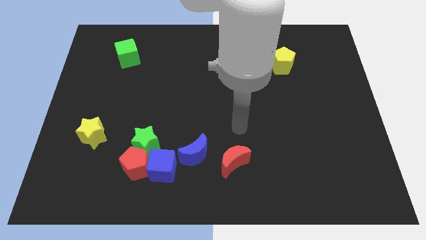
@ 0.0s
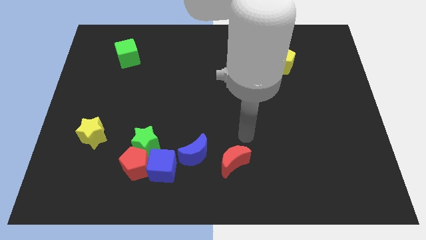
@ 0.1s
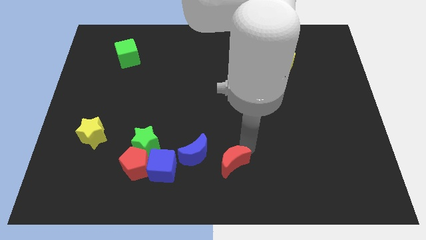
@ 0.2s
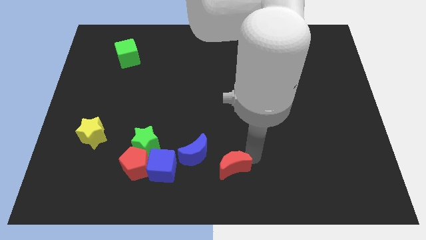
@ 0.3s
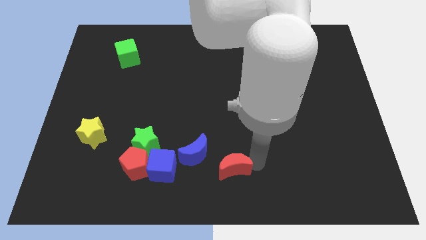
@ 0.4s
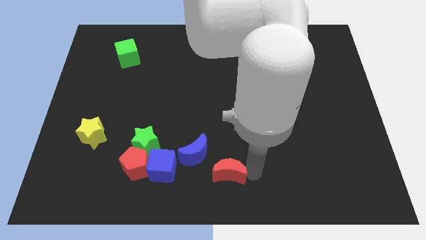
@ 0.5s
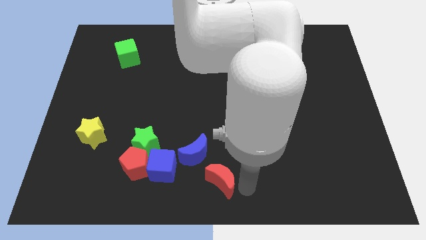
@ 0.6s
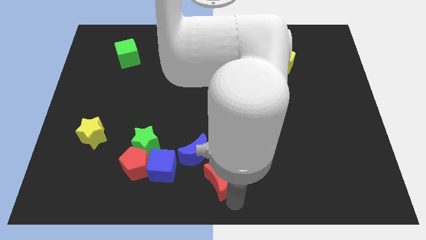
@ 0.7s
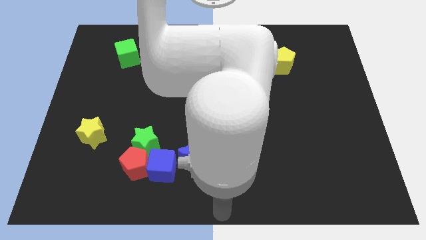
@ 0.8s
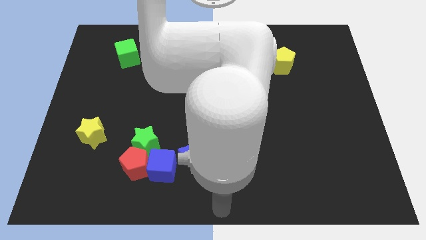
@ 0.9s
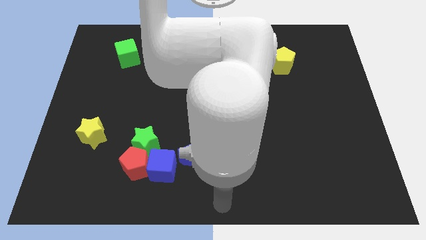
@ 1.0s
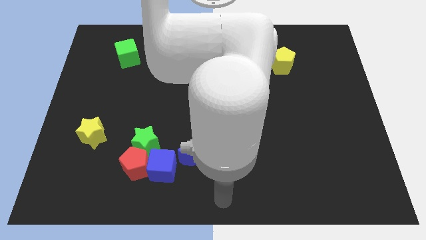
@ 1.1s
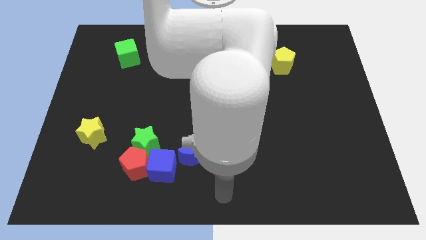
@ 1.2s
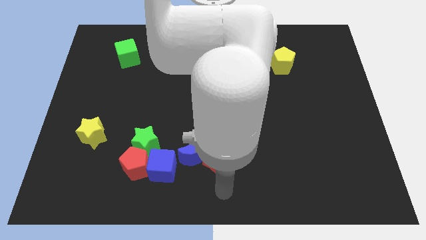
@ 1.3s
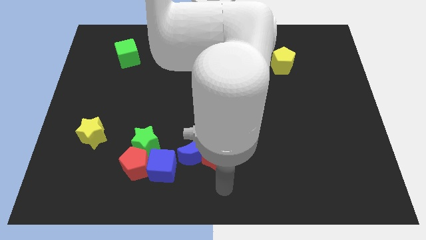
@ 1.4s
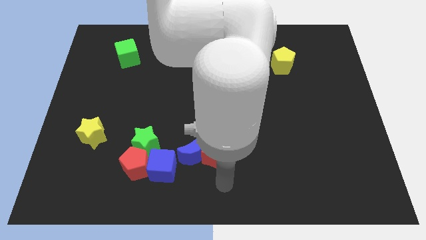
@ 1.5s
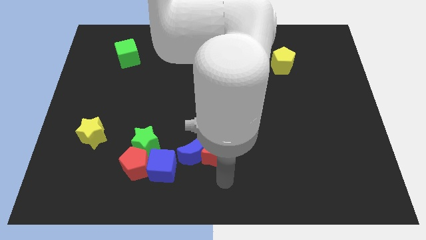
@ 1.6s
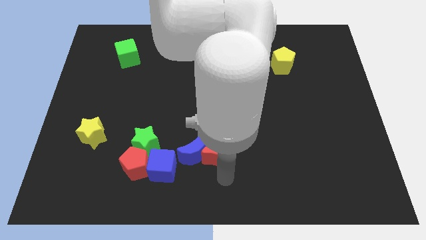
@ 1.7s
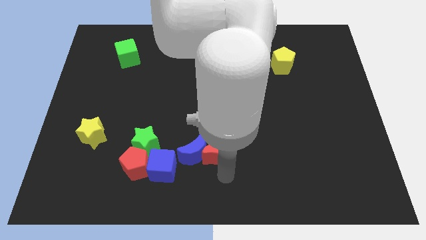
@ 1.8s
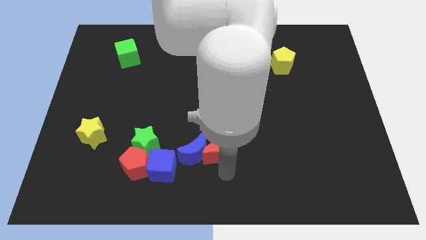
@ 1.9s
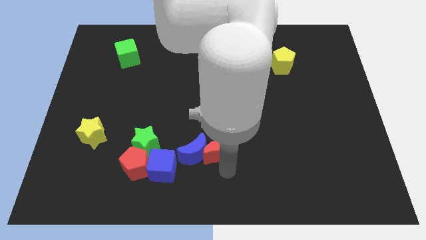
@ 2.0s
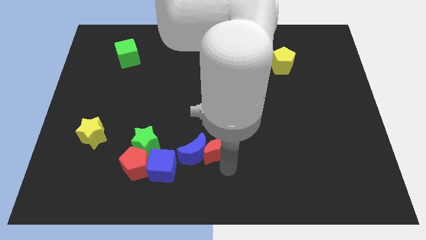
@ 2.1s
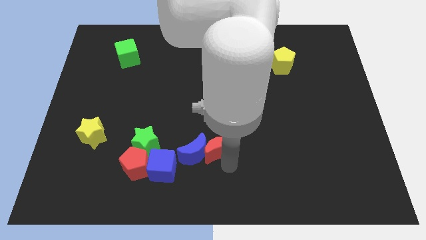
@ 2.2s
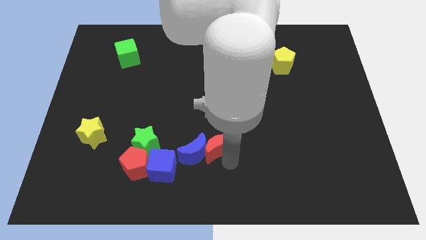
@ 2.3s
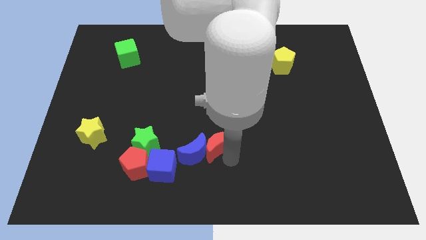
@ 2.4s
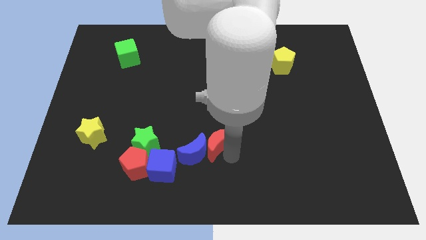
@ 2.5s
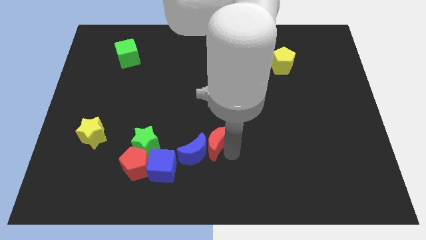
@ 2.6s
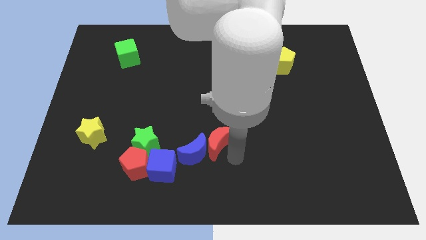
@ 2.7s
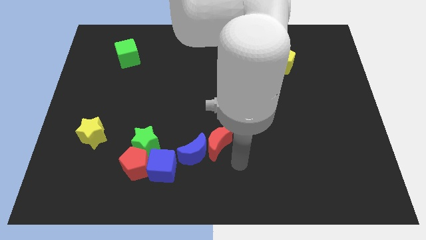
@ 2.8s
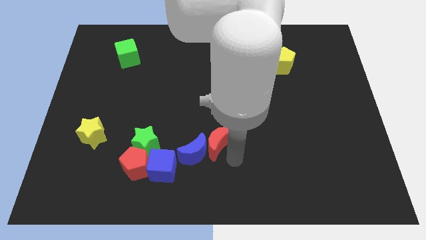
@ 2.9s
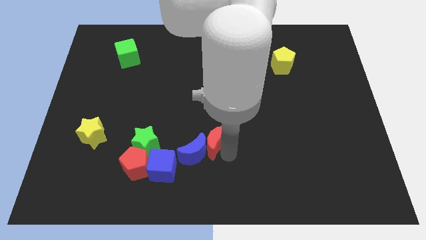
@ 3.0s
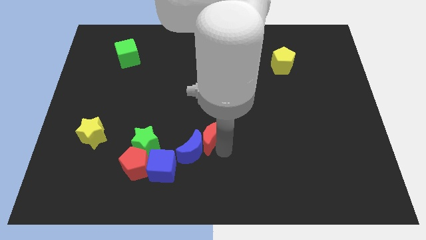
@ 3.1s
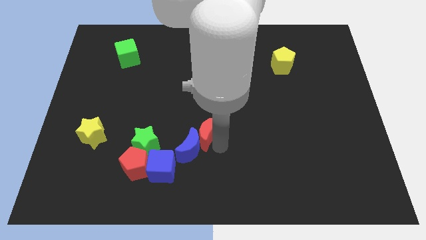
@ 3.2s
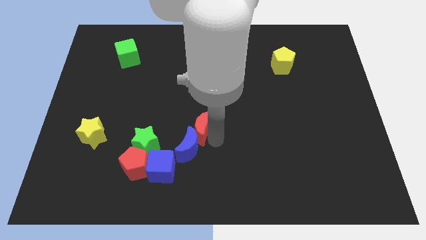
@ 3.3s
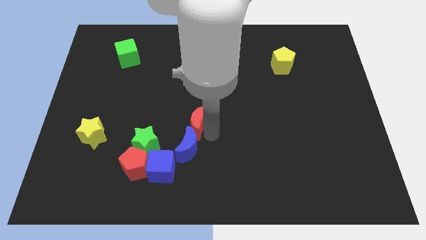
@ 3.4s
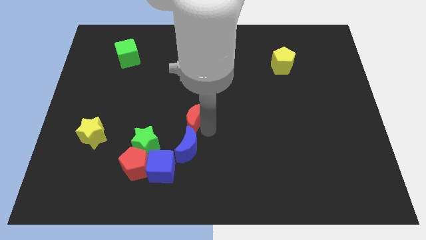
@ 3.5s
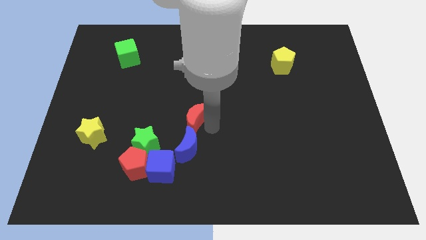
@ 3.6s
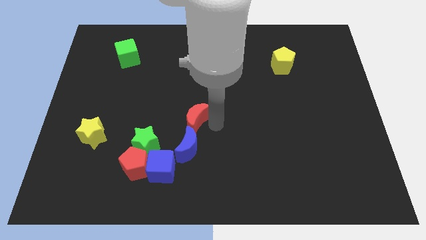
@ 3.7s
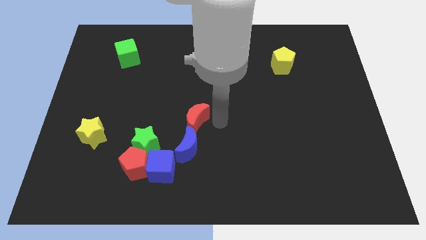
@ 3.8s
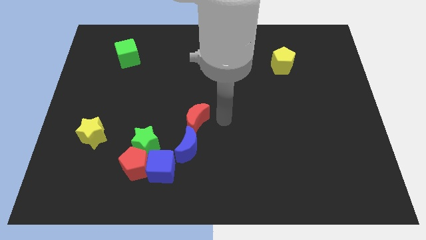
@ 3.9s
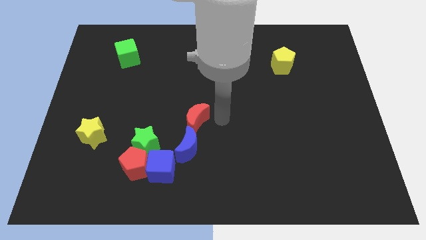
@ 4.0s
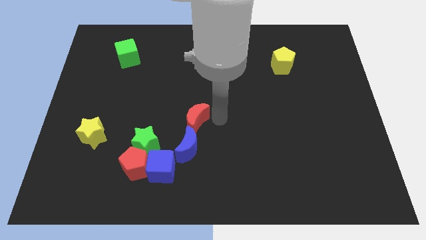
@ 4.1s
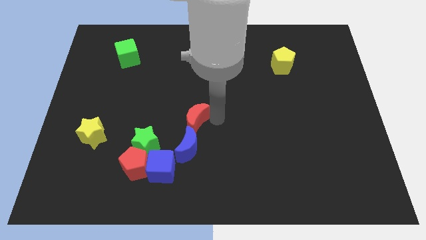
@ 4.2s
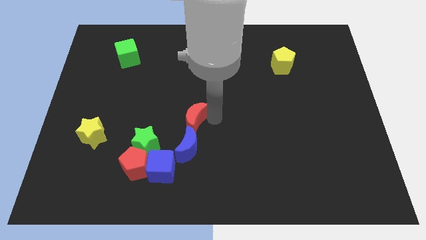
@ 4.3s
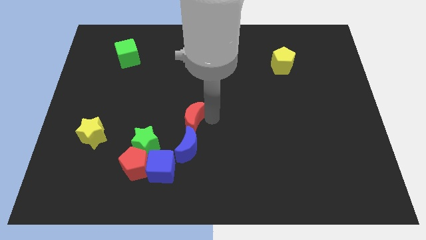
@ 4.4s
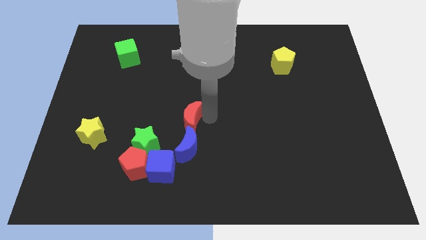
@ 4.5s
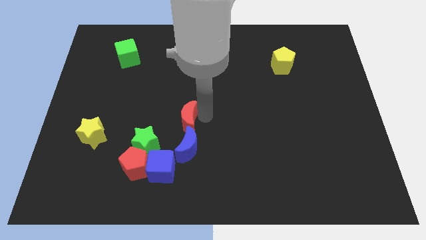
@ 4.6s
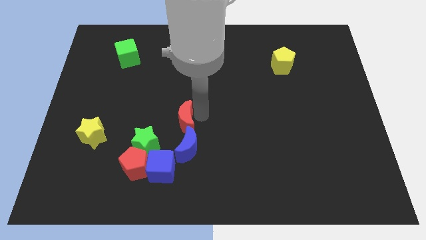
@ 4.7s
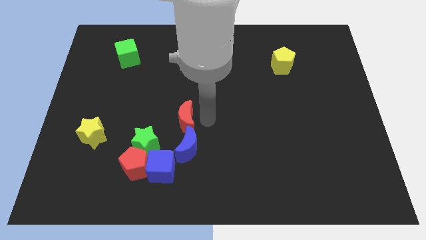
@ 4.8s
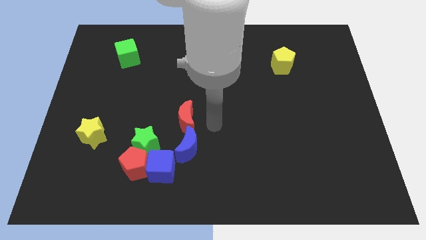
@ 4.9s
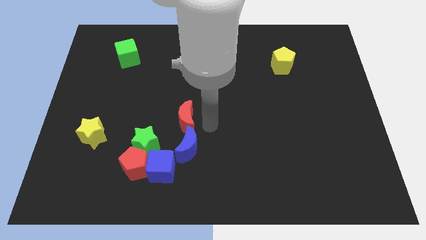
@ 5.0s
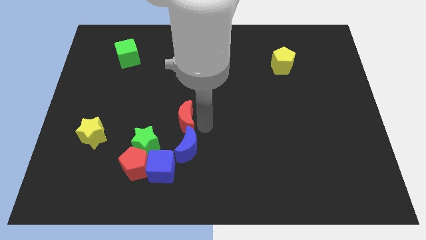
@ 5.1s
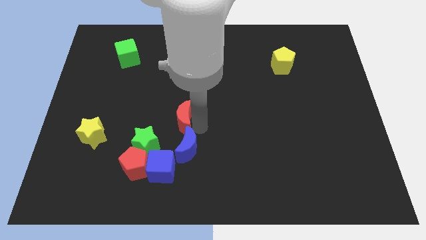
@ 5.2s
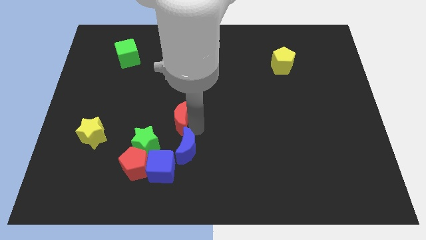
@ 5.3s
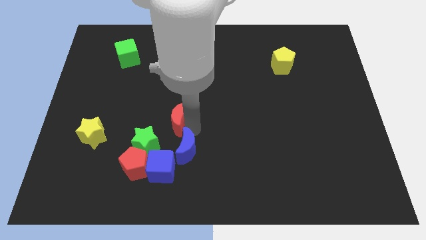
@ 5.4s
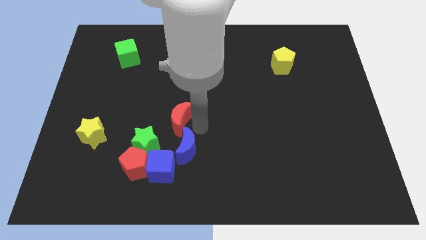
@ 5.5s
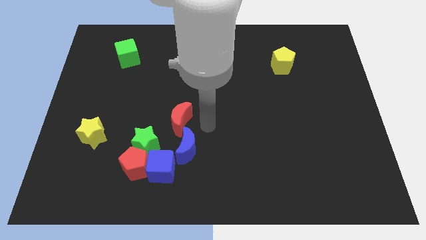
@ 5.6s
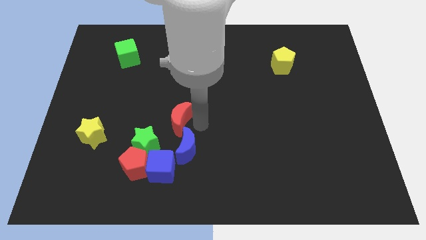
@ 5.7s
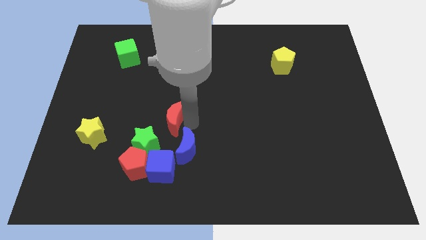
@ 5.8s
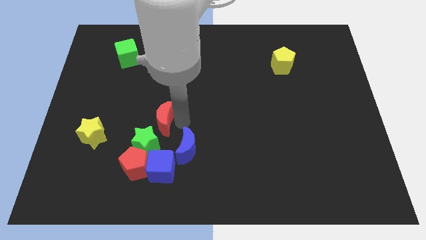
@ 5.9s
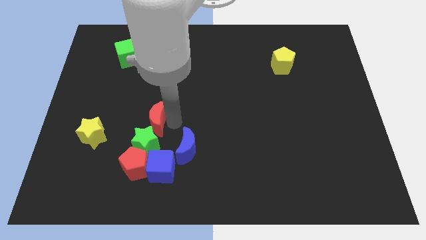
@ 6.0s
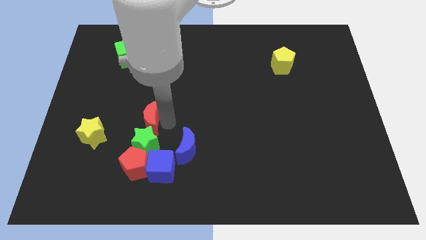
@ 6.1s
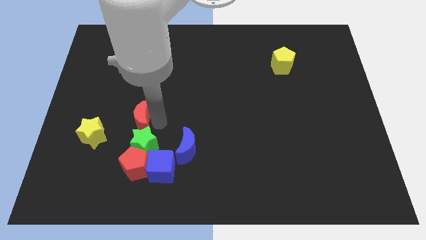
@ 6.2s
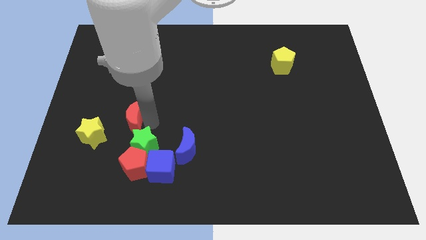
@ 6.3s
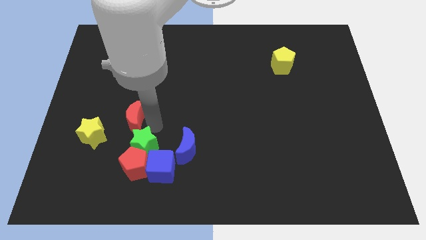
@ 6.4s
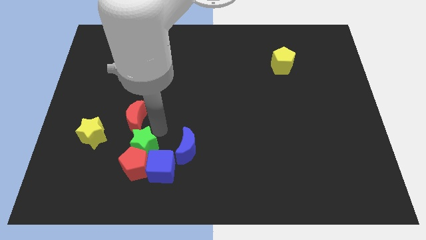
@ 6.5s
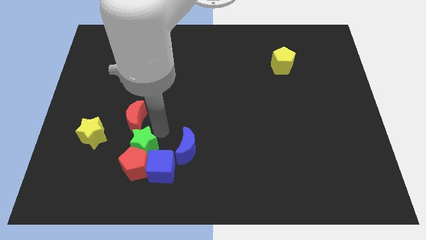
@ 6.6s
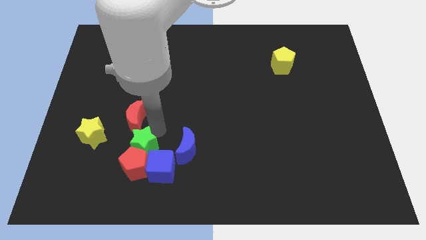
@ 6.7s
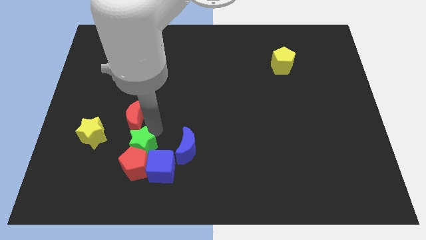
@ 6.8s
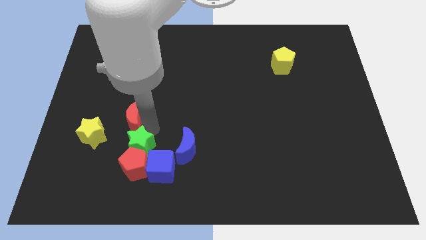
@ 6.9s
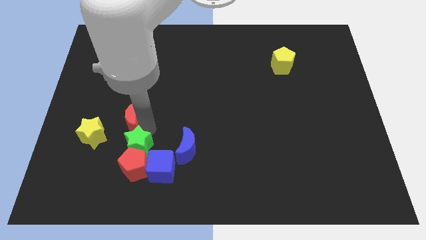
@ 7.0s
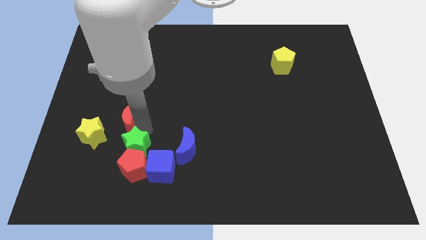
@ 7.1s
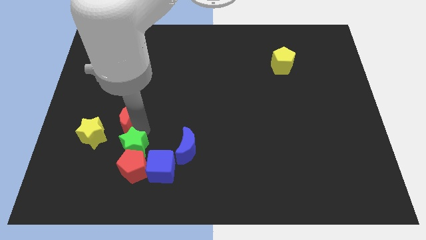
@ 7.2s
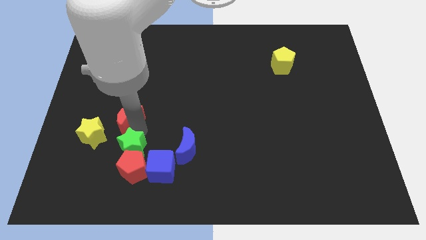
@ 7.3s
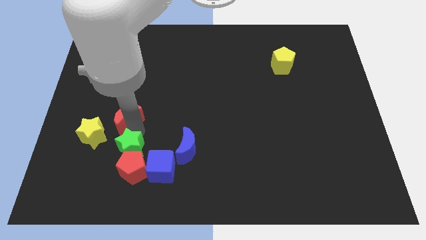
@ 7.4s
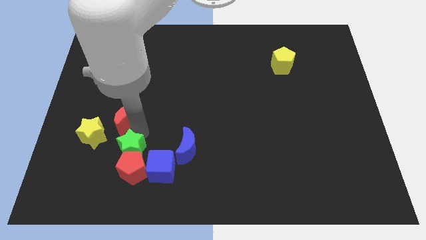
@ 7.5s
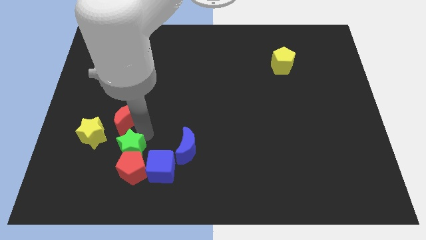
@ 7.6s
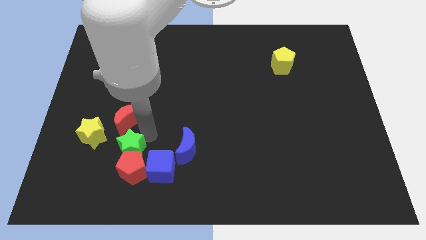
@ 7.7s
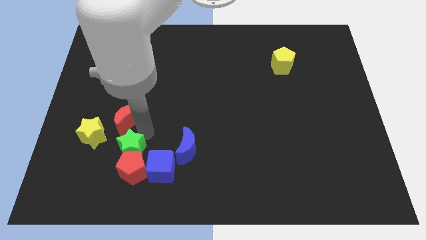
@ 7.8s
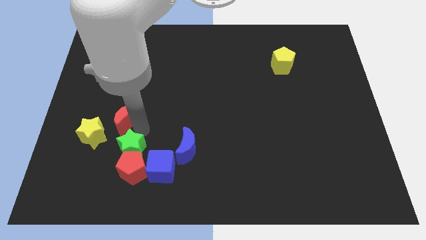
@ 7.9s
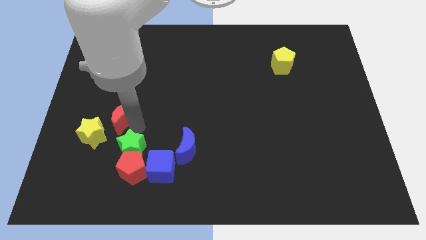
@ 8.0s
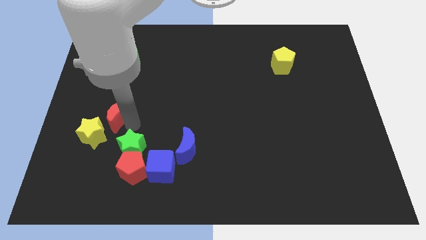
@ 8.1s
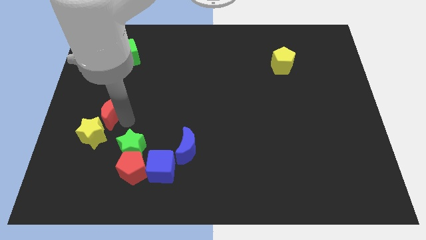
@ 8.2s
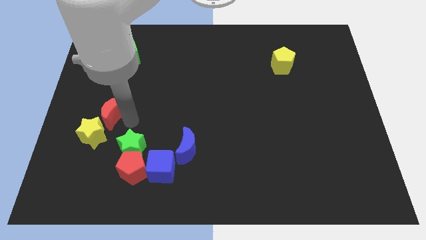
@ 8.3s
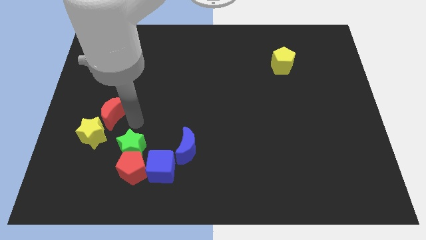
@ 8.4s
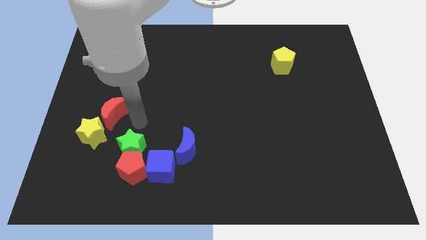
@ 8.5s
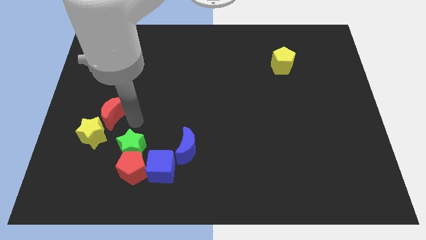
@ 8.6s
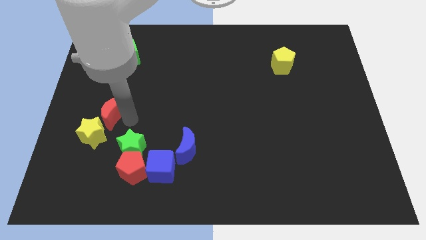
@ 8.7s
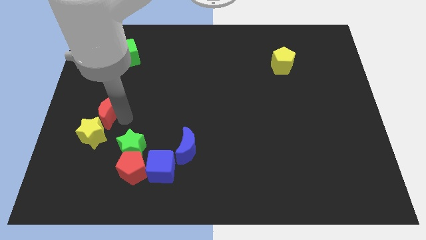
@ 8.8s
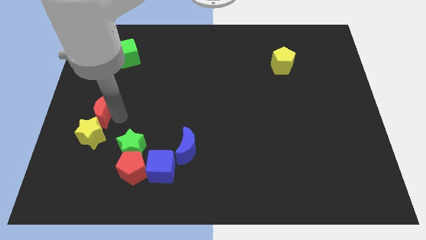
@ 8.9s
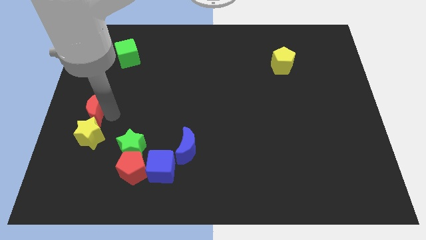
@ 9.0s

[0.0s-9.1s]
slide the red moon to the left side
